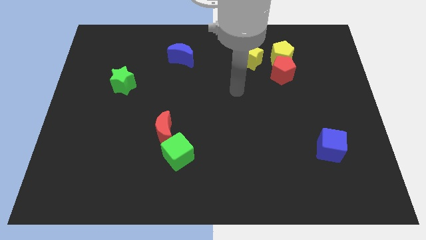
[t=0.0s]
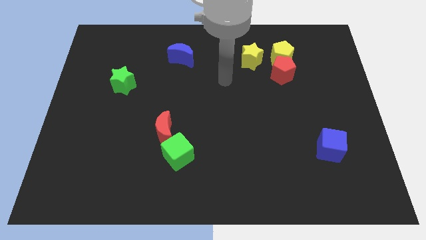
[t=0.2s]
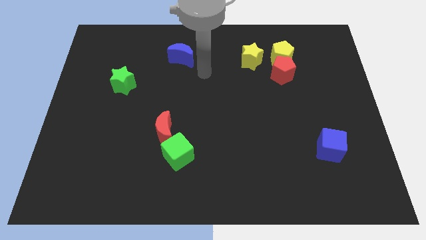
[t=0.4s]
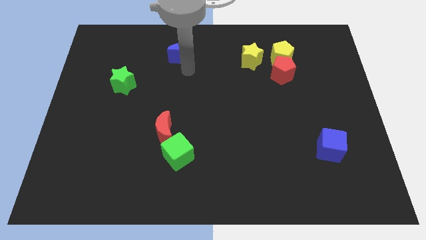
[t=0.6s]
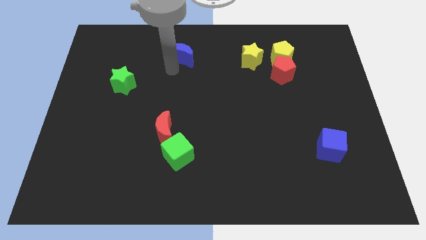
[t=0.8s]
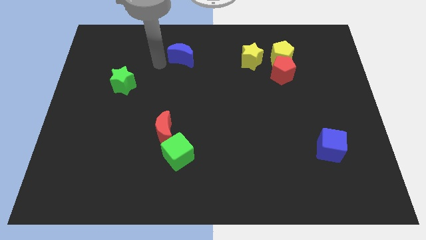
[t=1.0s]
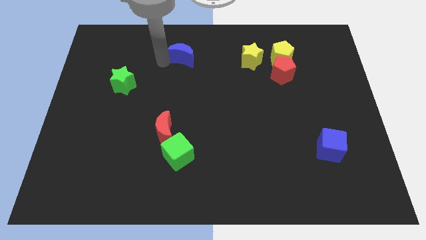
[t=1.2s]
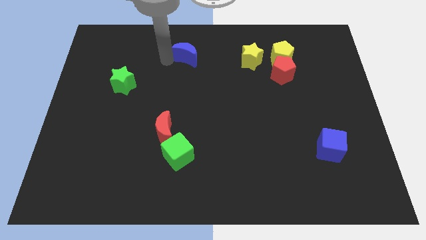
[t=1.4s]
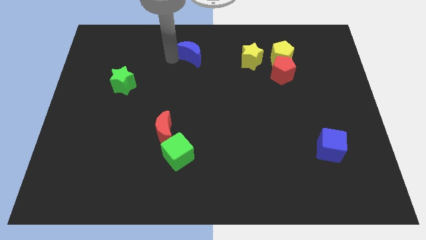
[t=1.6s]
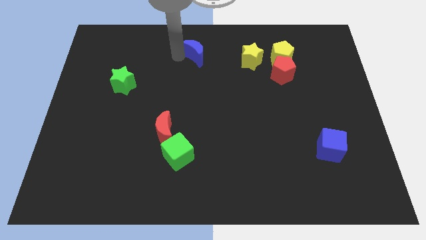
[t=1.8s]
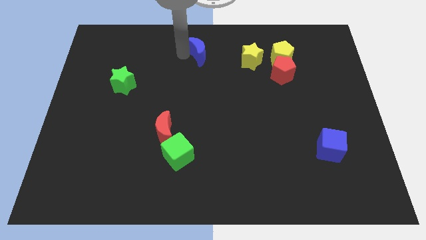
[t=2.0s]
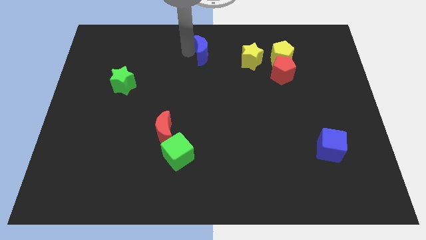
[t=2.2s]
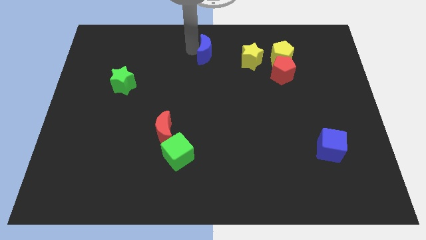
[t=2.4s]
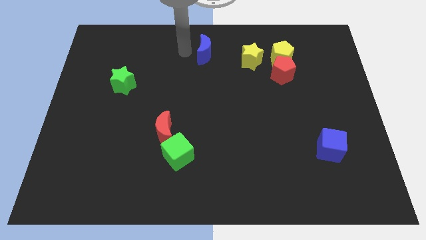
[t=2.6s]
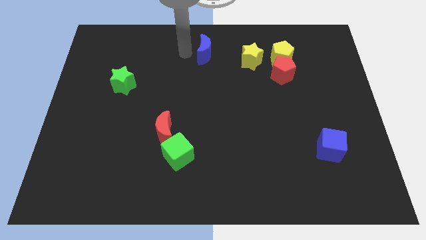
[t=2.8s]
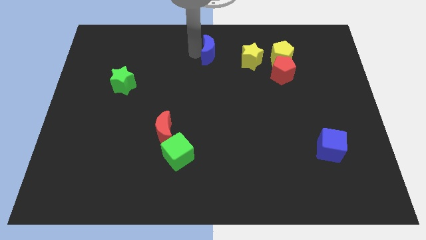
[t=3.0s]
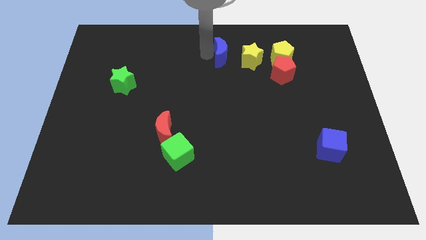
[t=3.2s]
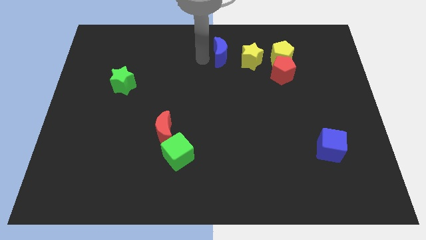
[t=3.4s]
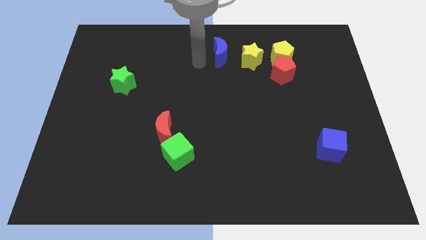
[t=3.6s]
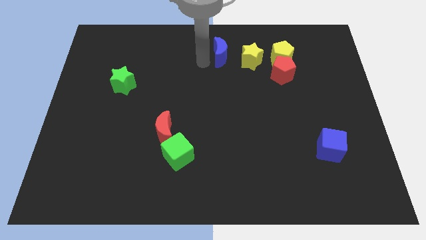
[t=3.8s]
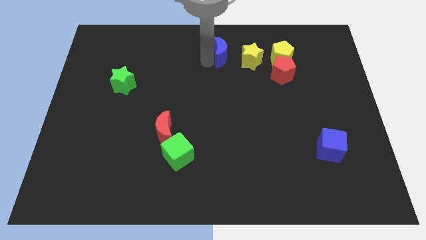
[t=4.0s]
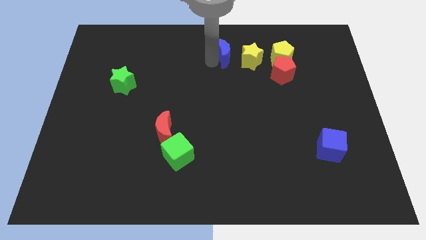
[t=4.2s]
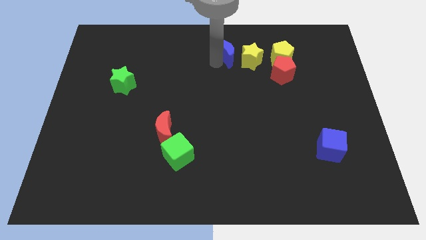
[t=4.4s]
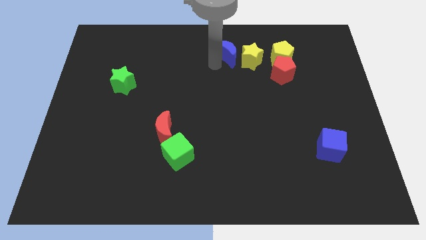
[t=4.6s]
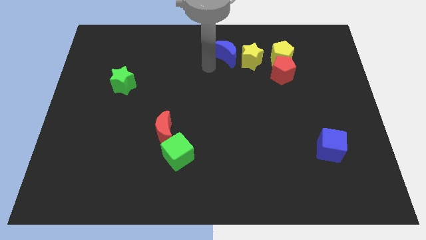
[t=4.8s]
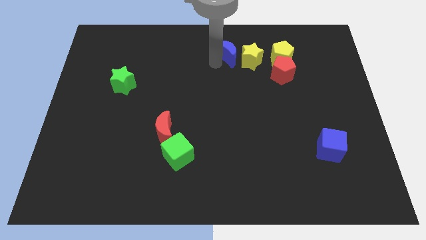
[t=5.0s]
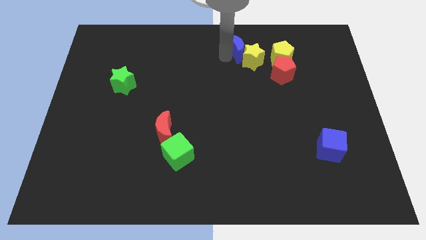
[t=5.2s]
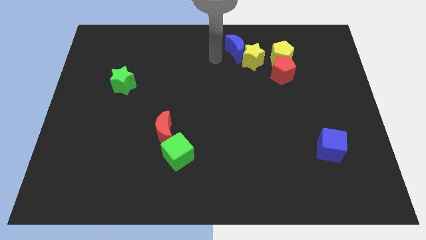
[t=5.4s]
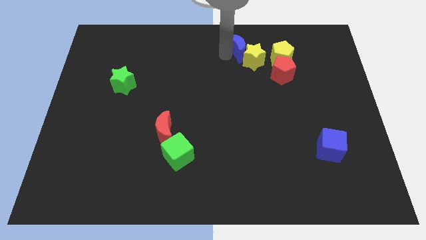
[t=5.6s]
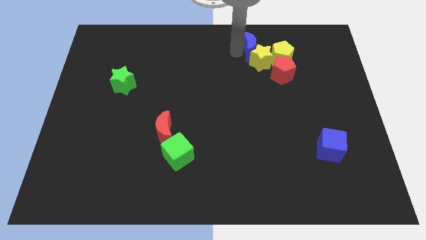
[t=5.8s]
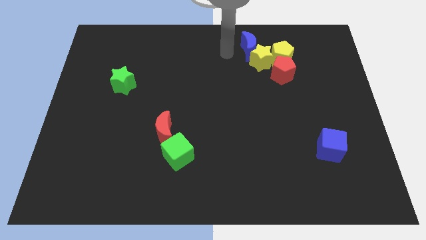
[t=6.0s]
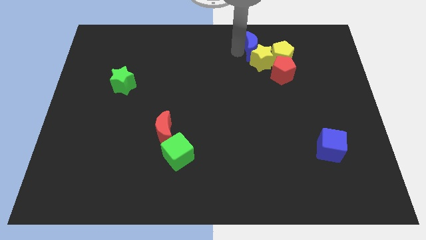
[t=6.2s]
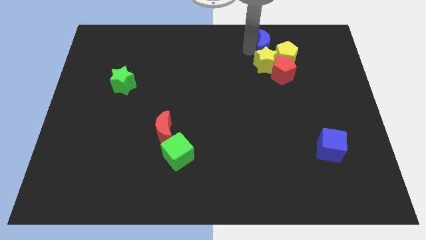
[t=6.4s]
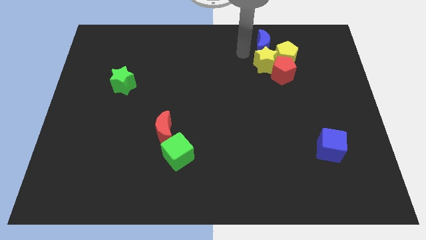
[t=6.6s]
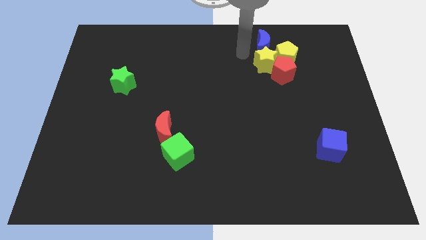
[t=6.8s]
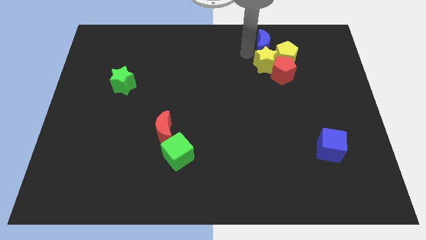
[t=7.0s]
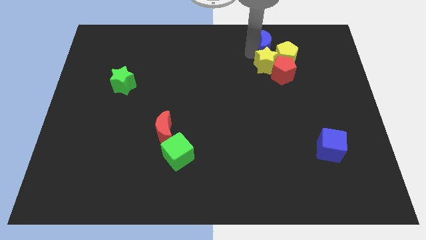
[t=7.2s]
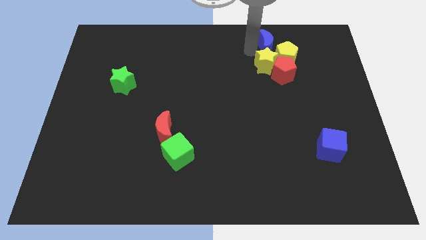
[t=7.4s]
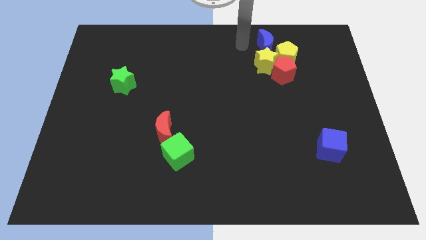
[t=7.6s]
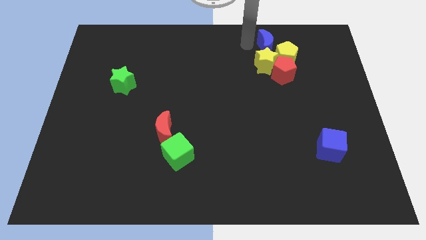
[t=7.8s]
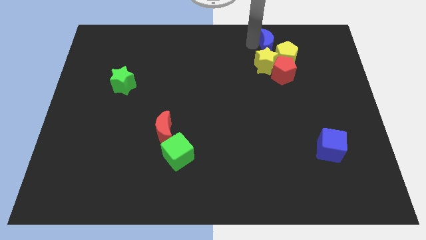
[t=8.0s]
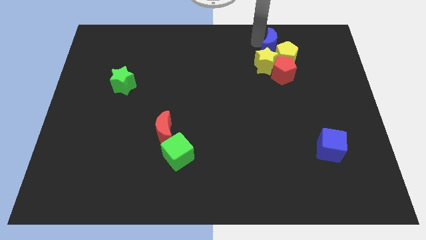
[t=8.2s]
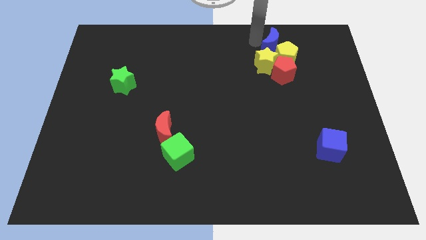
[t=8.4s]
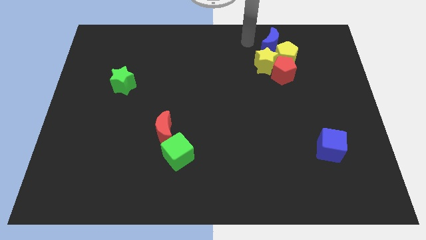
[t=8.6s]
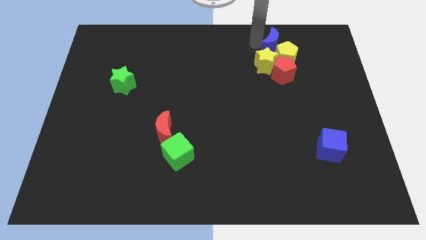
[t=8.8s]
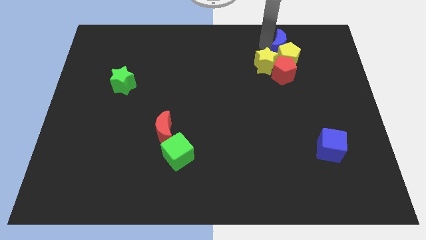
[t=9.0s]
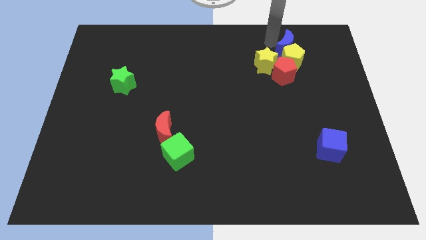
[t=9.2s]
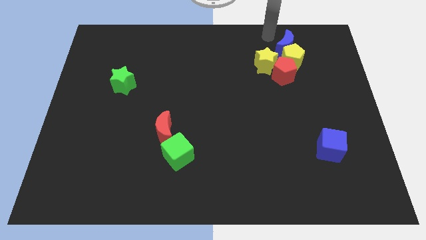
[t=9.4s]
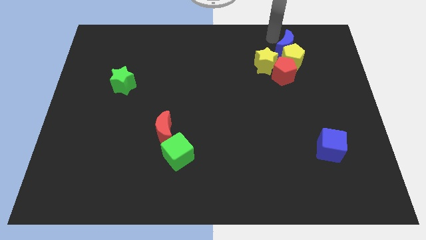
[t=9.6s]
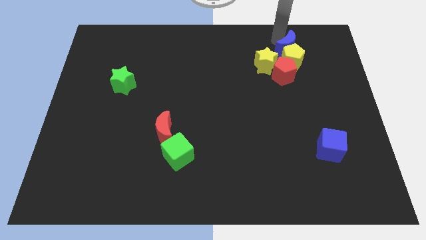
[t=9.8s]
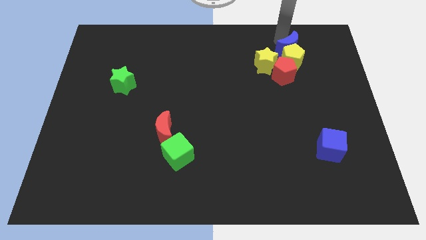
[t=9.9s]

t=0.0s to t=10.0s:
move the blue moon to the top right side of the red pentagon

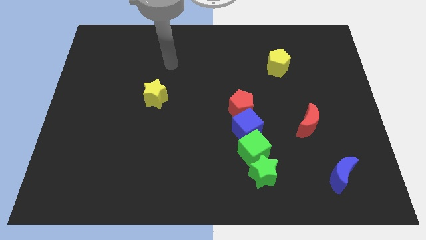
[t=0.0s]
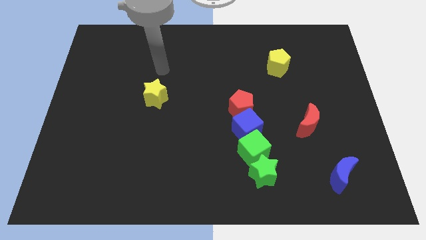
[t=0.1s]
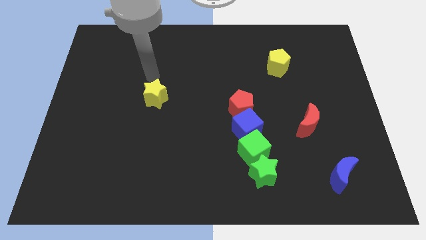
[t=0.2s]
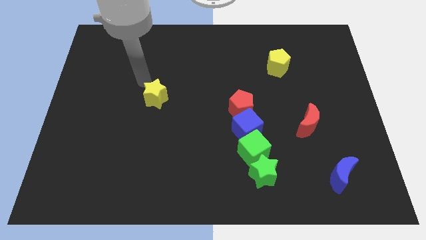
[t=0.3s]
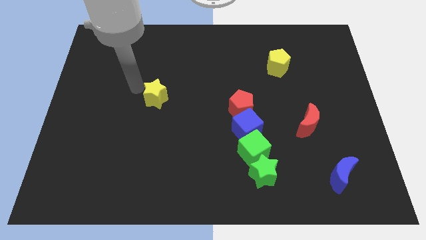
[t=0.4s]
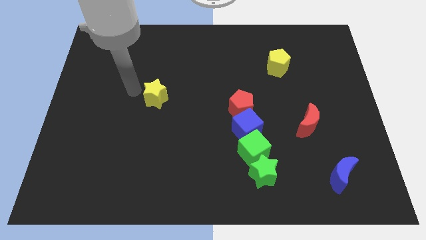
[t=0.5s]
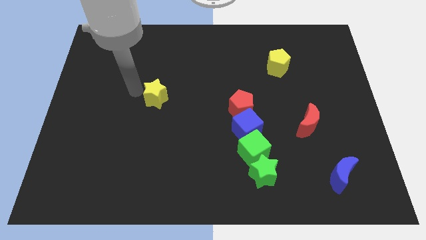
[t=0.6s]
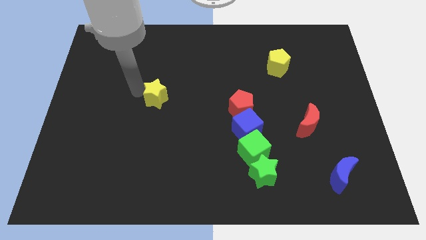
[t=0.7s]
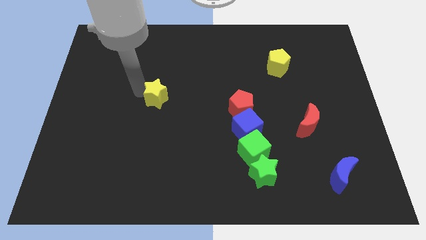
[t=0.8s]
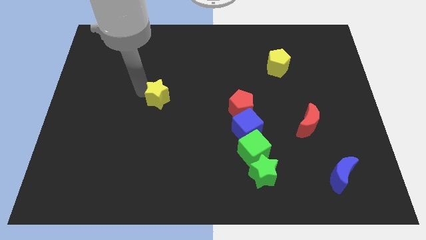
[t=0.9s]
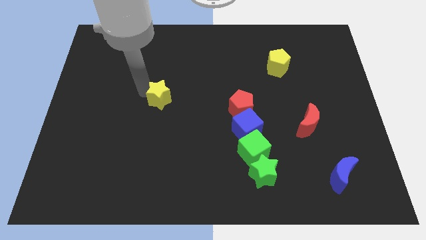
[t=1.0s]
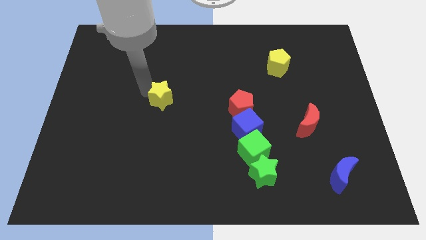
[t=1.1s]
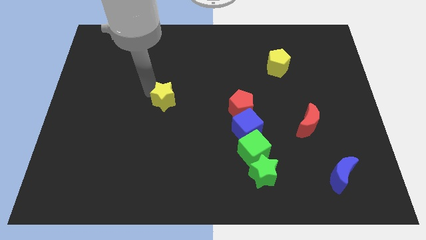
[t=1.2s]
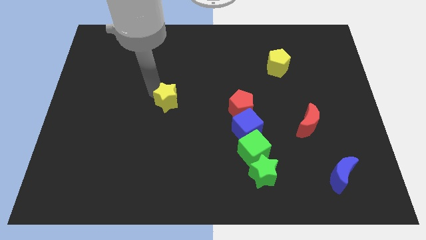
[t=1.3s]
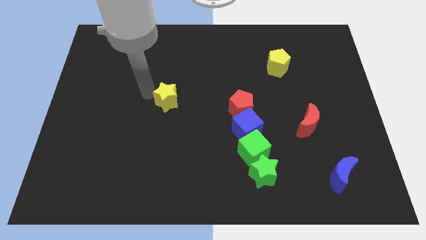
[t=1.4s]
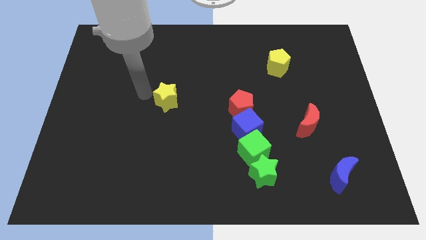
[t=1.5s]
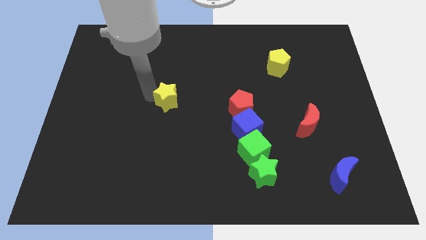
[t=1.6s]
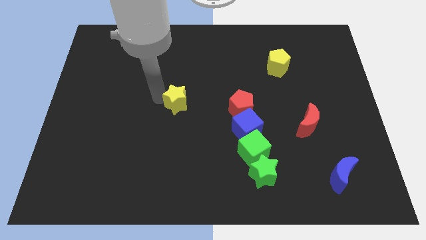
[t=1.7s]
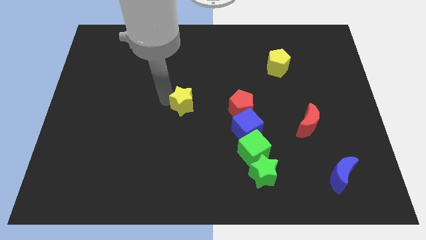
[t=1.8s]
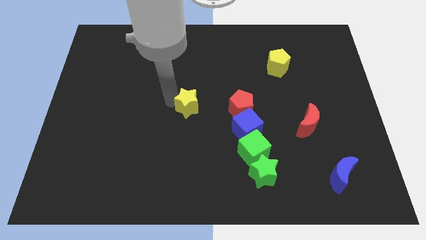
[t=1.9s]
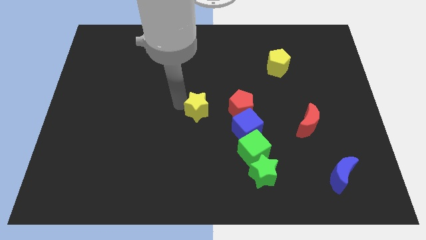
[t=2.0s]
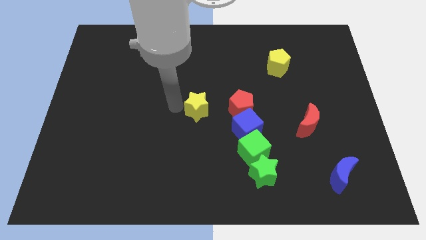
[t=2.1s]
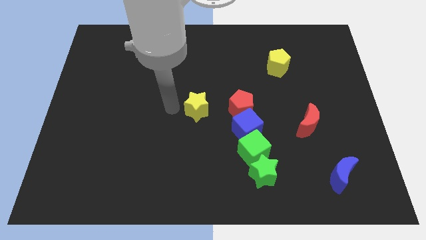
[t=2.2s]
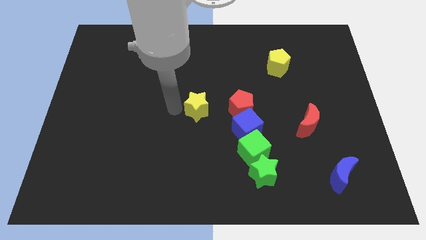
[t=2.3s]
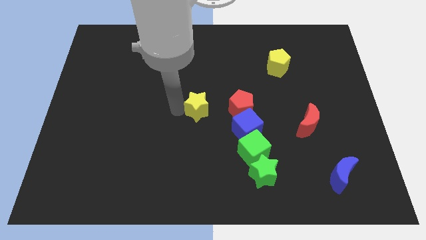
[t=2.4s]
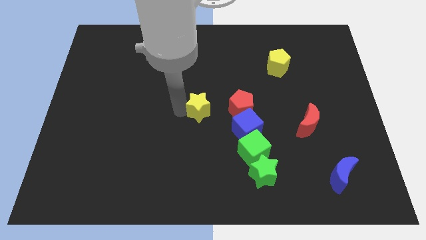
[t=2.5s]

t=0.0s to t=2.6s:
move the yellow star to the top left of the blue cube
